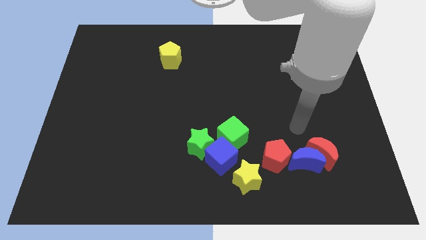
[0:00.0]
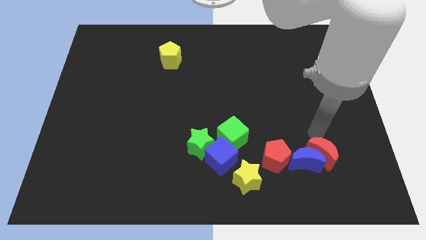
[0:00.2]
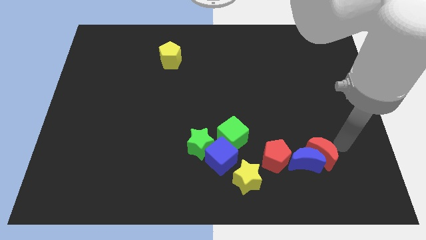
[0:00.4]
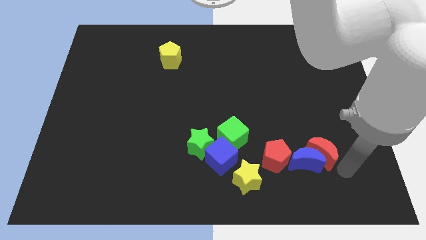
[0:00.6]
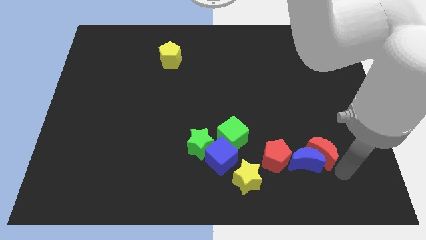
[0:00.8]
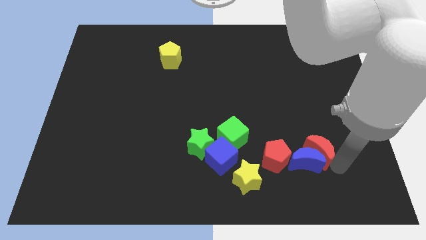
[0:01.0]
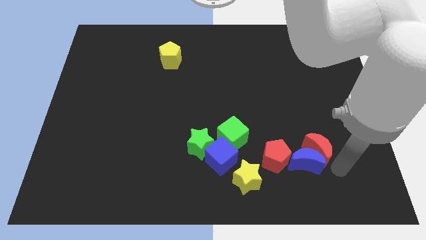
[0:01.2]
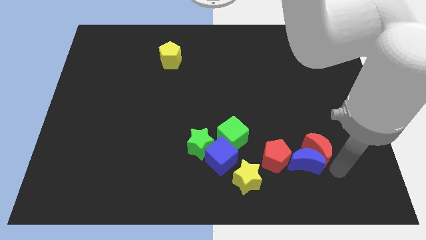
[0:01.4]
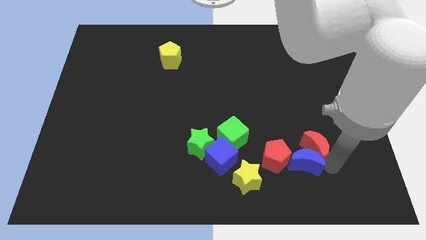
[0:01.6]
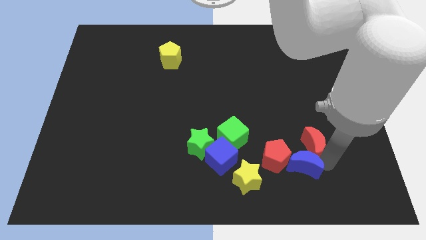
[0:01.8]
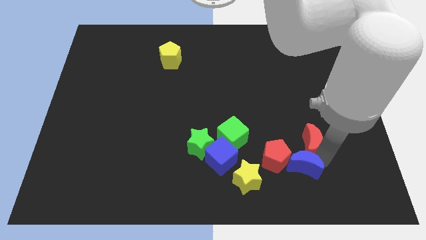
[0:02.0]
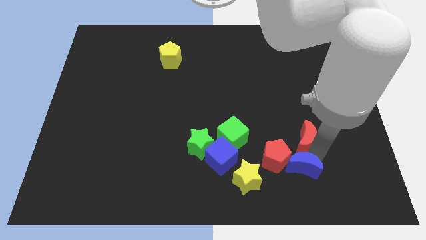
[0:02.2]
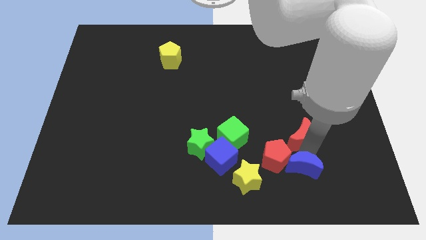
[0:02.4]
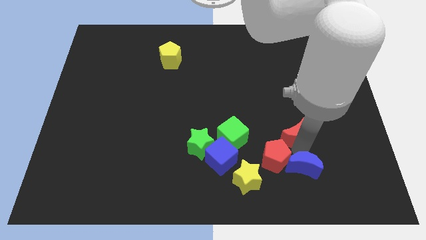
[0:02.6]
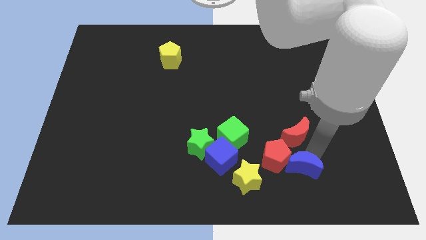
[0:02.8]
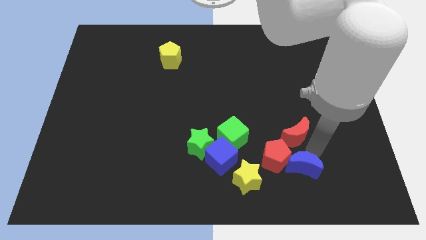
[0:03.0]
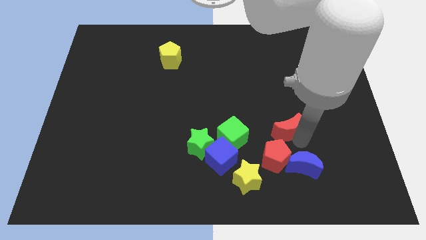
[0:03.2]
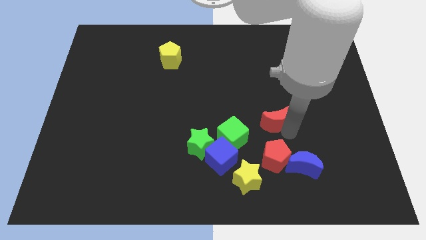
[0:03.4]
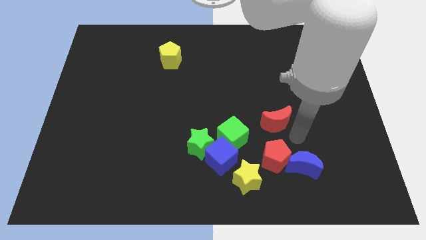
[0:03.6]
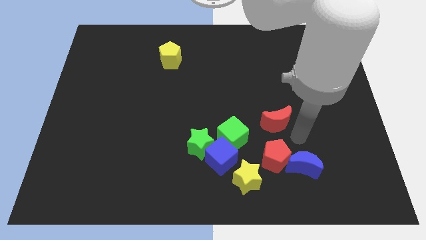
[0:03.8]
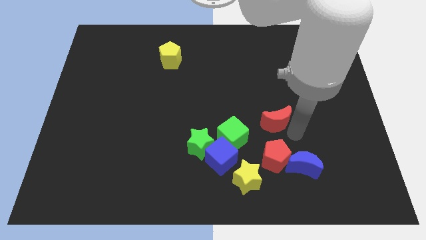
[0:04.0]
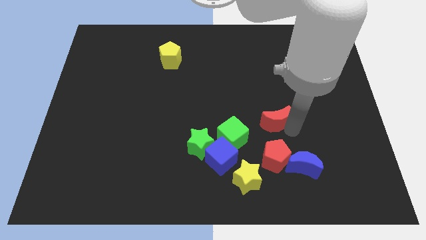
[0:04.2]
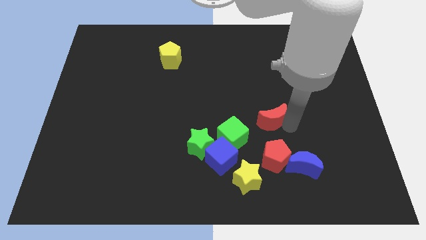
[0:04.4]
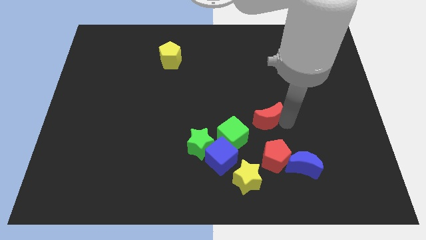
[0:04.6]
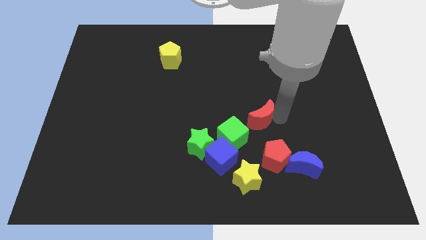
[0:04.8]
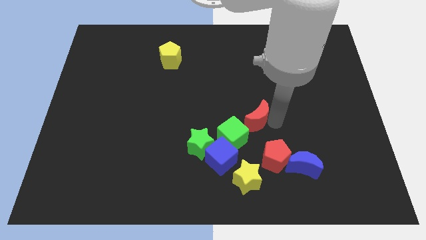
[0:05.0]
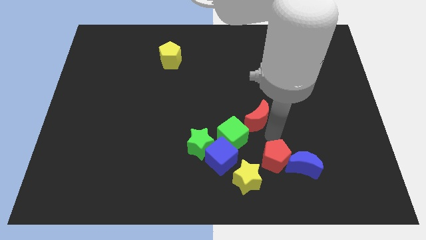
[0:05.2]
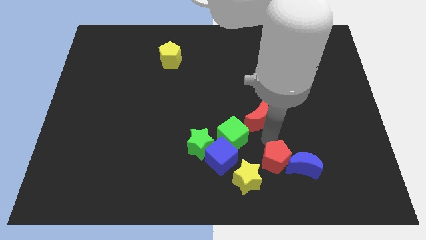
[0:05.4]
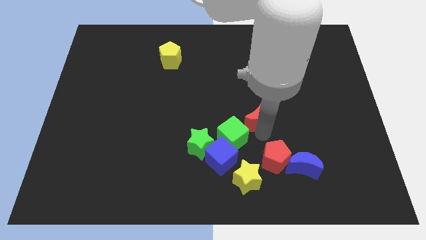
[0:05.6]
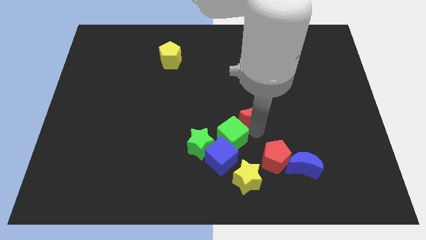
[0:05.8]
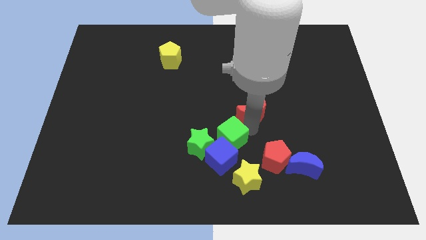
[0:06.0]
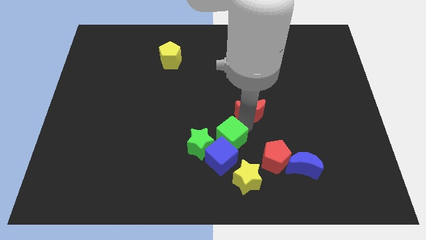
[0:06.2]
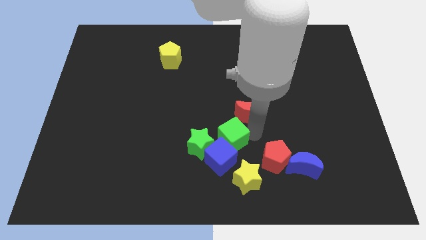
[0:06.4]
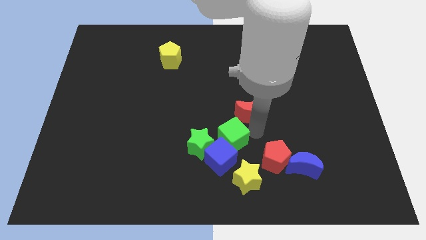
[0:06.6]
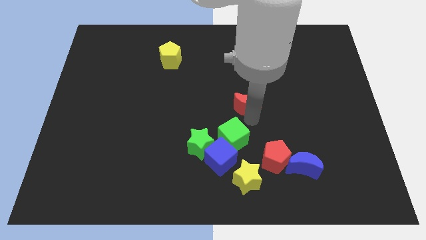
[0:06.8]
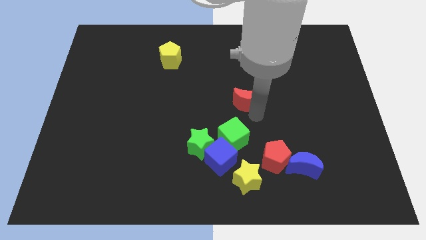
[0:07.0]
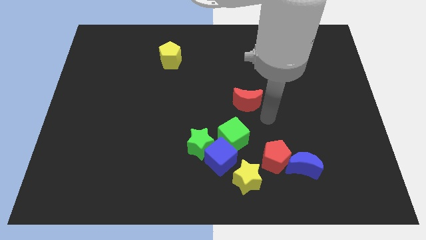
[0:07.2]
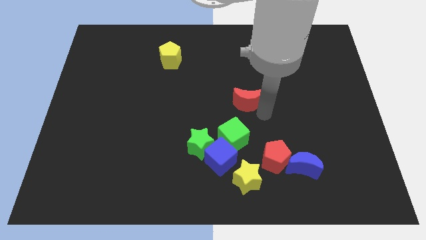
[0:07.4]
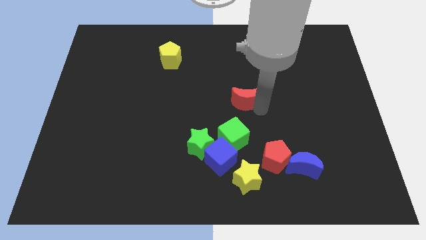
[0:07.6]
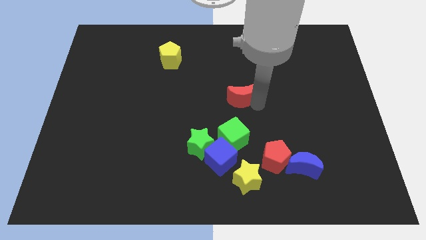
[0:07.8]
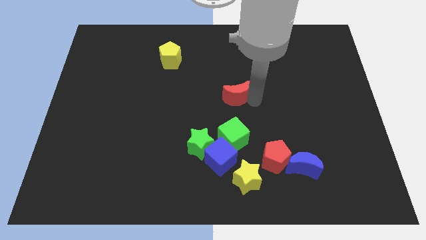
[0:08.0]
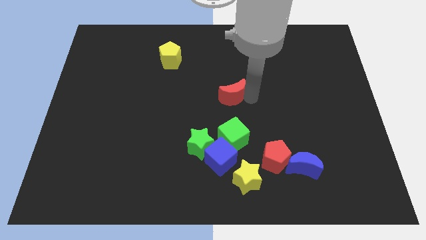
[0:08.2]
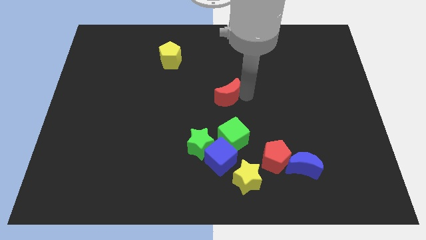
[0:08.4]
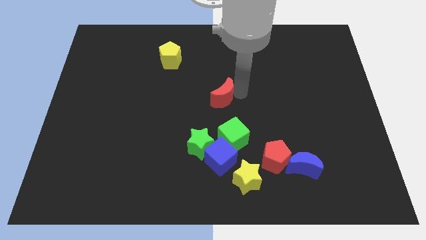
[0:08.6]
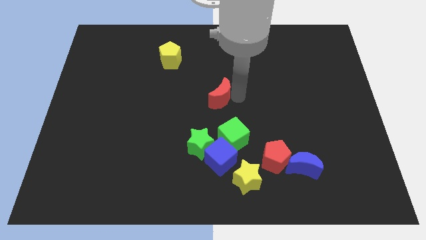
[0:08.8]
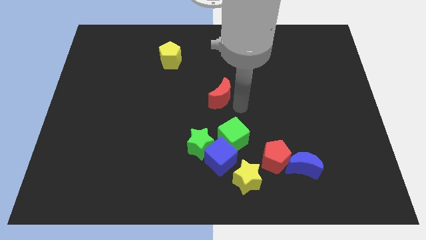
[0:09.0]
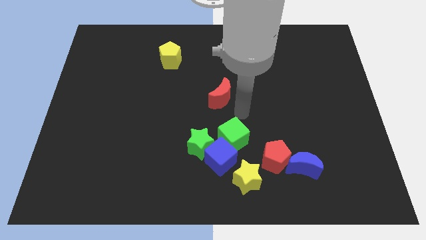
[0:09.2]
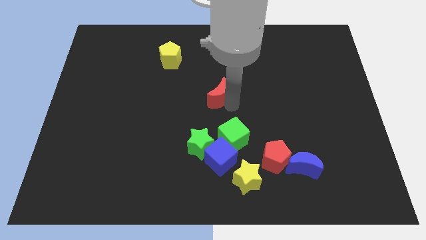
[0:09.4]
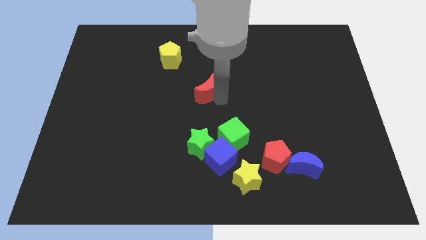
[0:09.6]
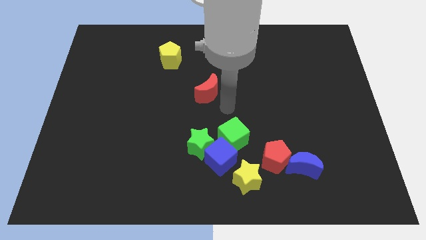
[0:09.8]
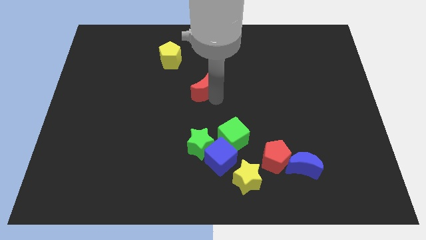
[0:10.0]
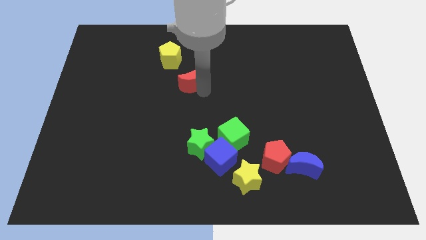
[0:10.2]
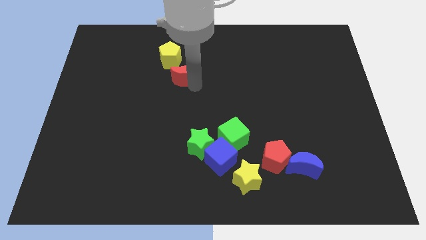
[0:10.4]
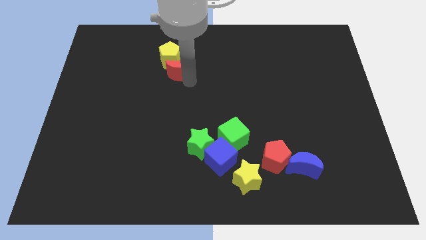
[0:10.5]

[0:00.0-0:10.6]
slide the red moon towards the yellow pentagon
